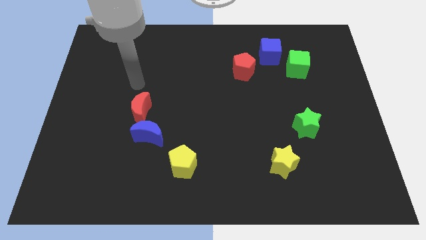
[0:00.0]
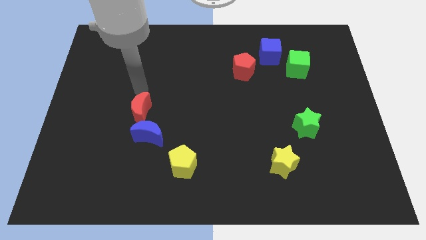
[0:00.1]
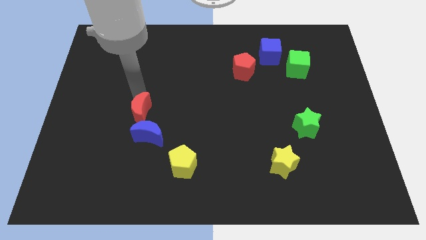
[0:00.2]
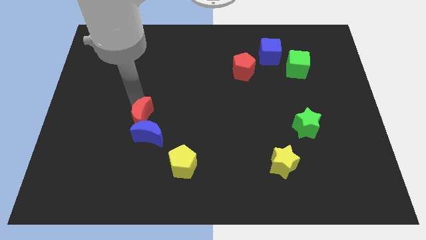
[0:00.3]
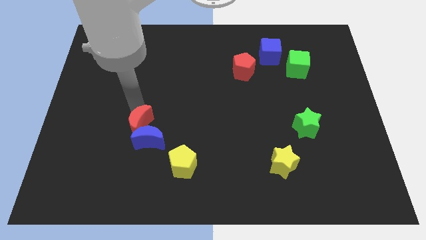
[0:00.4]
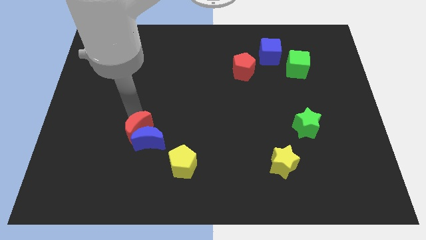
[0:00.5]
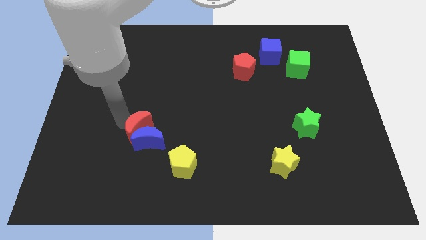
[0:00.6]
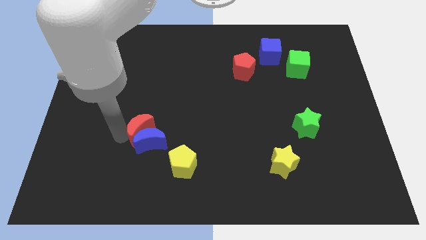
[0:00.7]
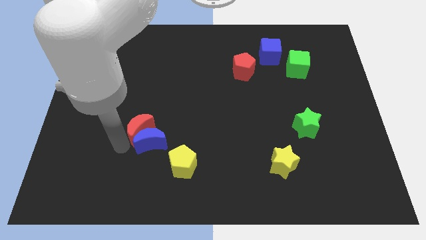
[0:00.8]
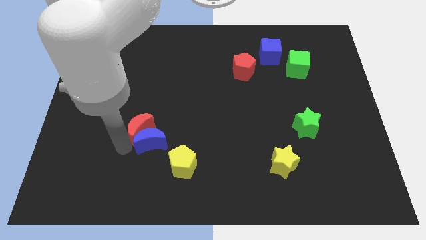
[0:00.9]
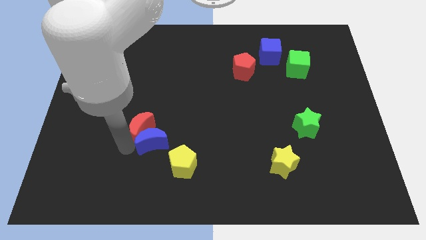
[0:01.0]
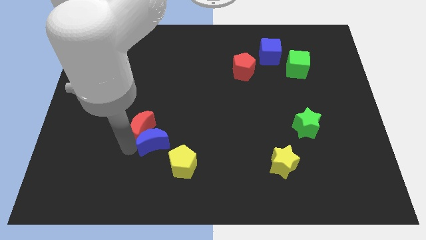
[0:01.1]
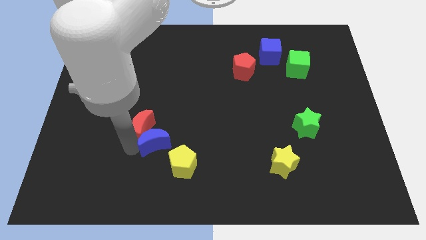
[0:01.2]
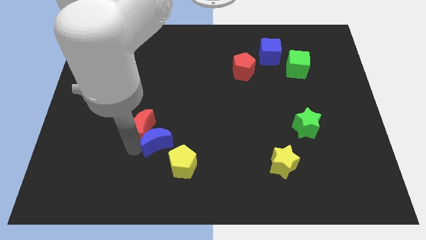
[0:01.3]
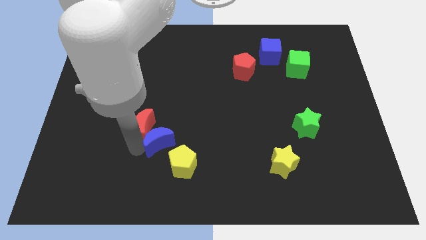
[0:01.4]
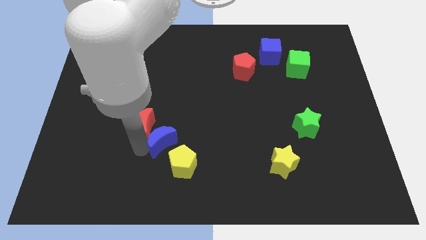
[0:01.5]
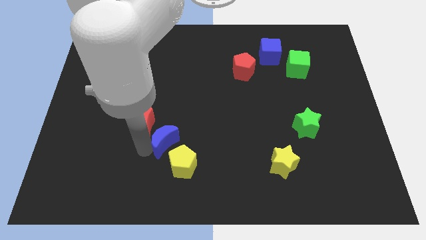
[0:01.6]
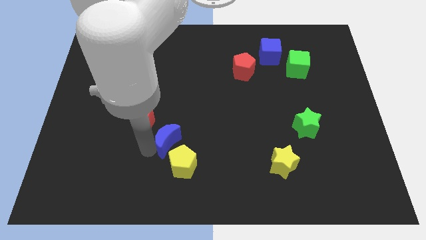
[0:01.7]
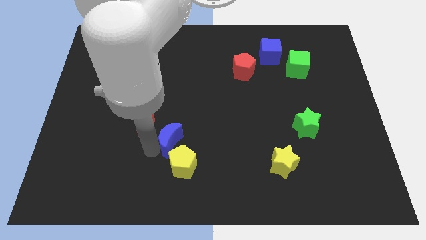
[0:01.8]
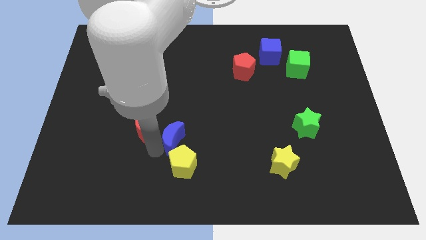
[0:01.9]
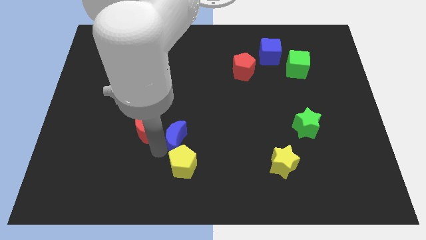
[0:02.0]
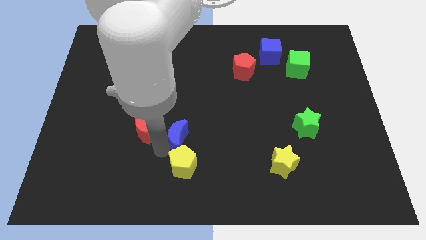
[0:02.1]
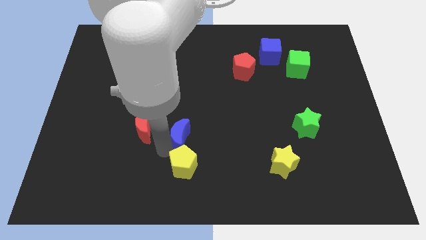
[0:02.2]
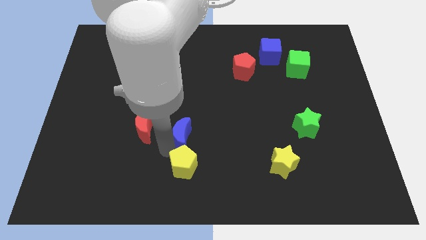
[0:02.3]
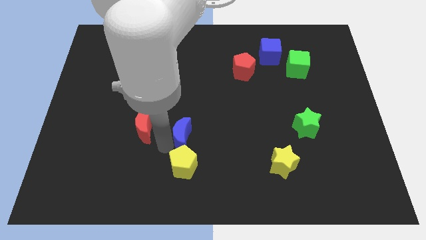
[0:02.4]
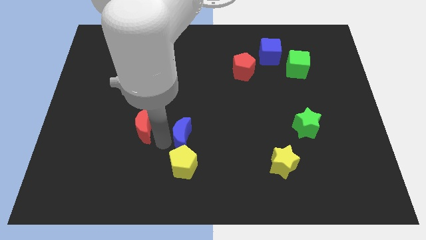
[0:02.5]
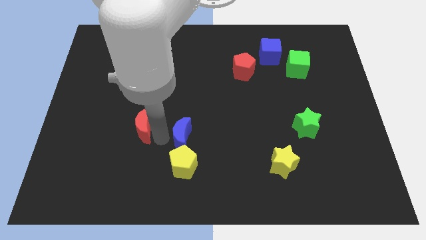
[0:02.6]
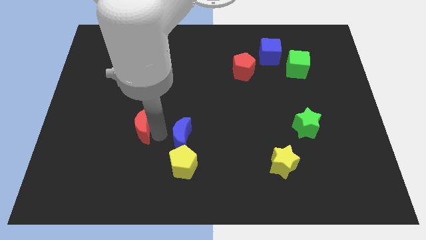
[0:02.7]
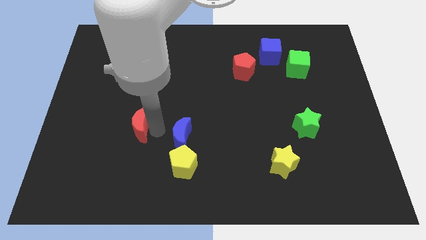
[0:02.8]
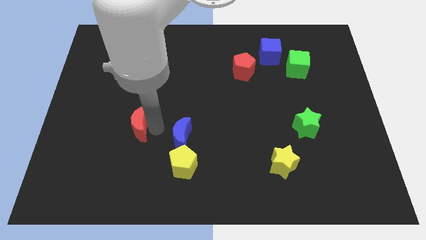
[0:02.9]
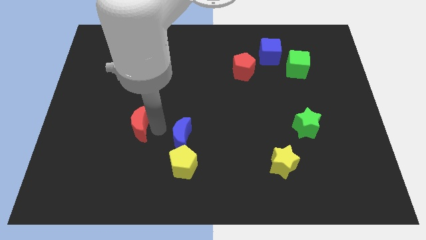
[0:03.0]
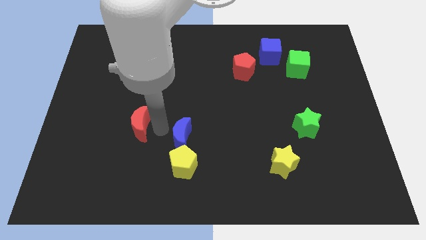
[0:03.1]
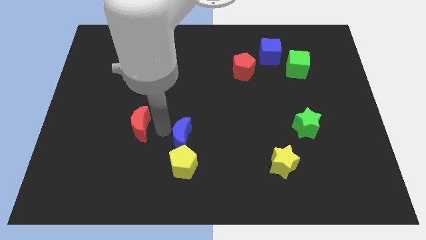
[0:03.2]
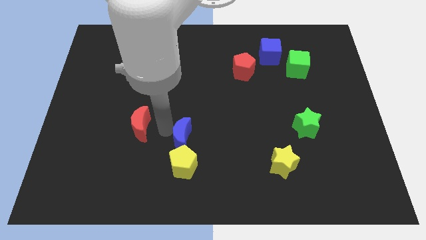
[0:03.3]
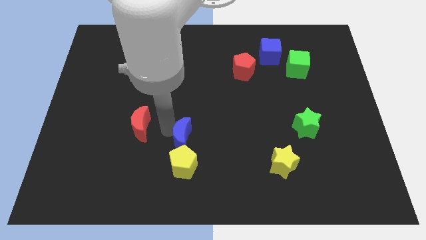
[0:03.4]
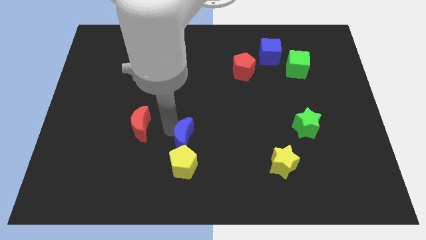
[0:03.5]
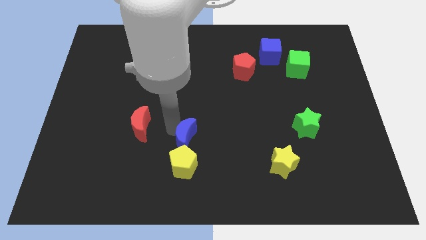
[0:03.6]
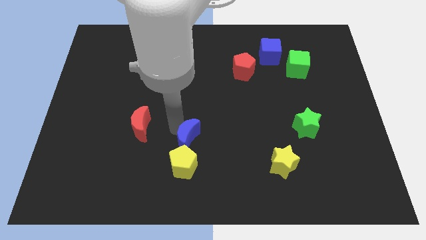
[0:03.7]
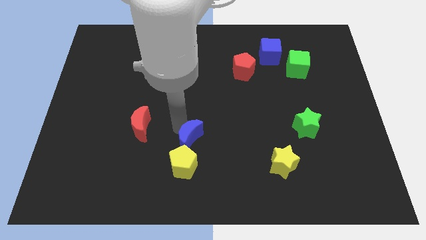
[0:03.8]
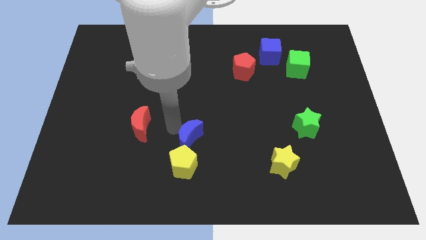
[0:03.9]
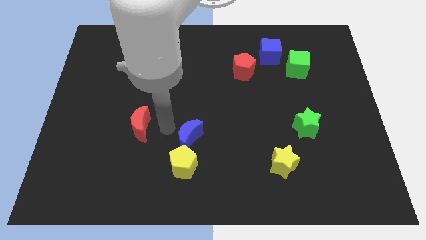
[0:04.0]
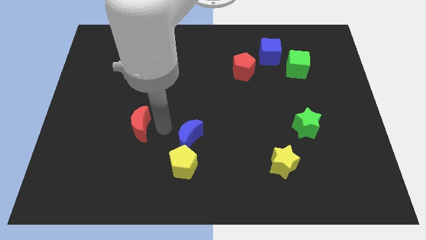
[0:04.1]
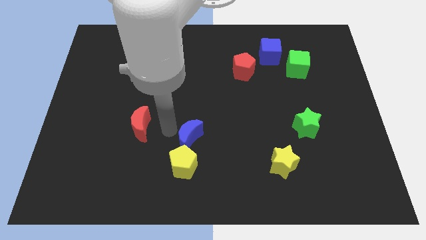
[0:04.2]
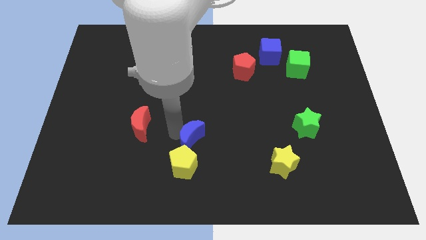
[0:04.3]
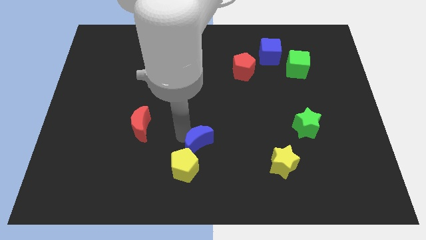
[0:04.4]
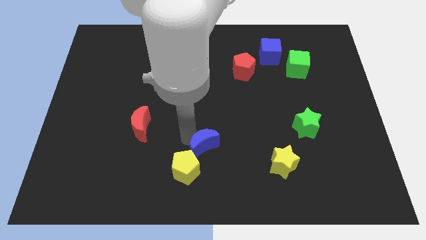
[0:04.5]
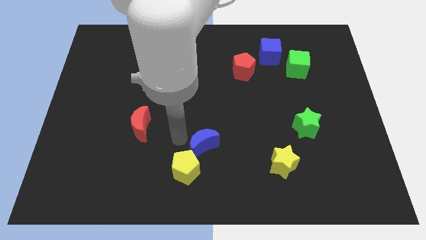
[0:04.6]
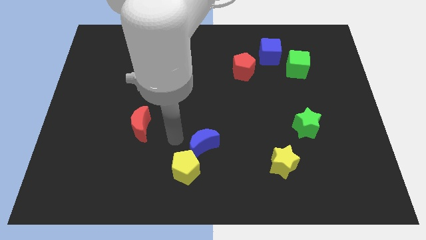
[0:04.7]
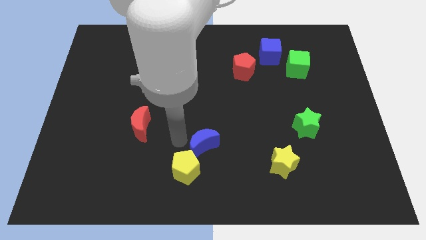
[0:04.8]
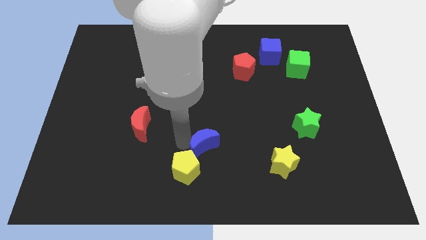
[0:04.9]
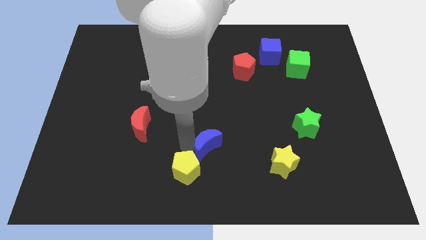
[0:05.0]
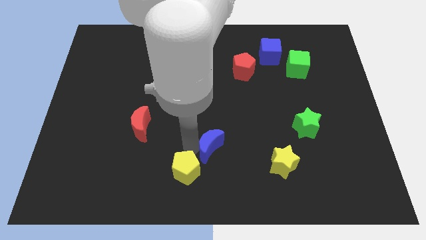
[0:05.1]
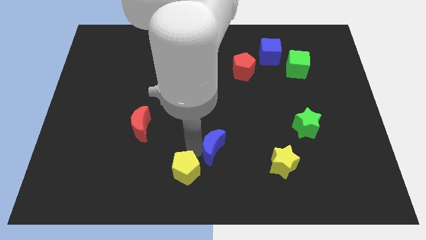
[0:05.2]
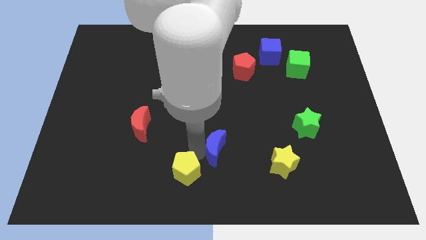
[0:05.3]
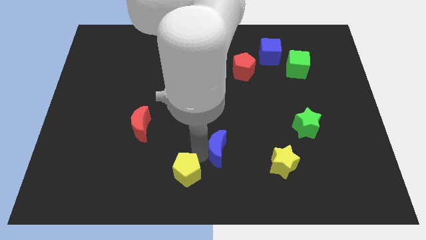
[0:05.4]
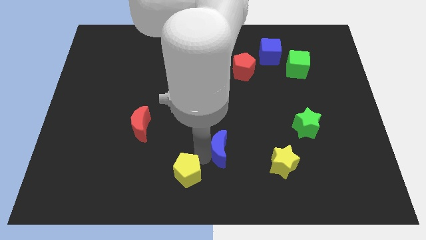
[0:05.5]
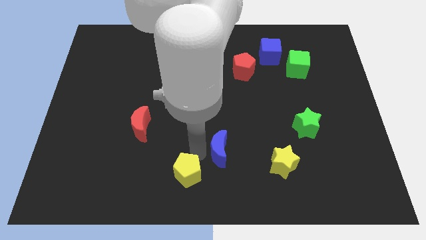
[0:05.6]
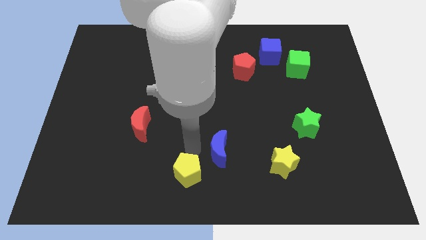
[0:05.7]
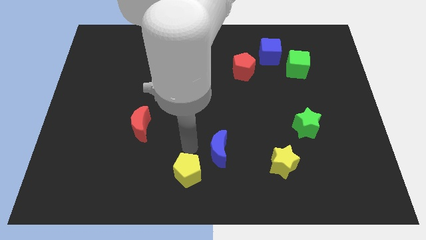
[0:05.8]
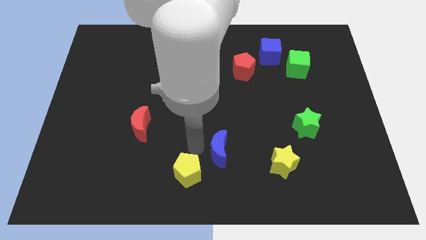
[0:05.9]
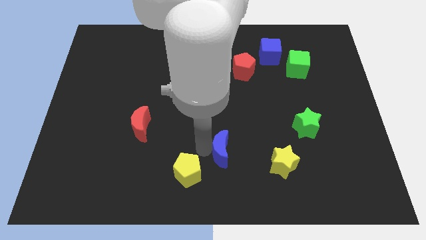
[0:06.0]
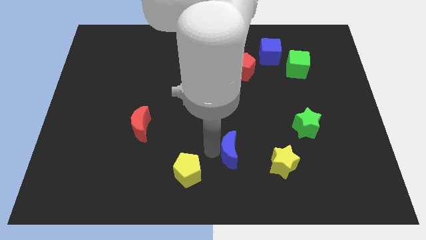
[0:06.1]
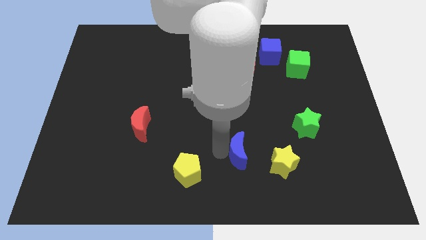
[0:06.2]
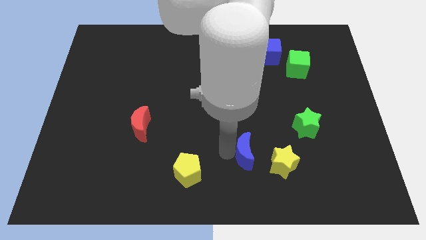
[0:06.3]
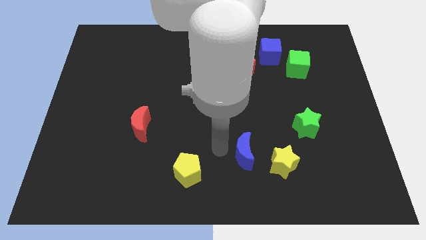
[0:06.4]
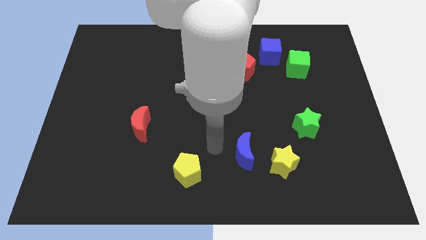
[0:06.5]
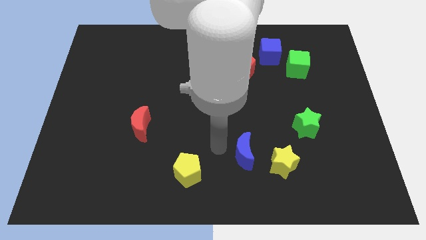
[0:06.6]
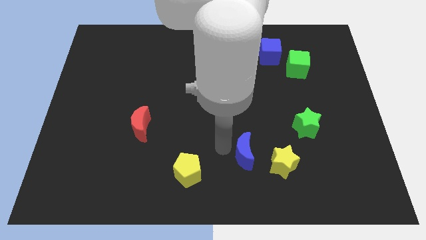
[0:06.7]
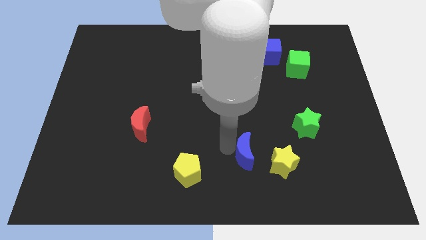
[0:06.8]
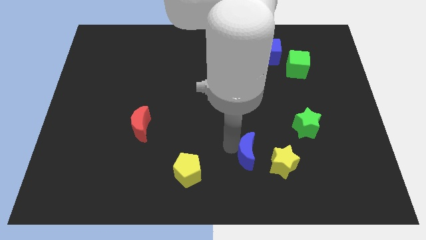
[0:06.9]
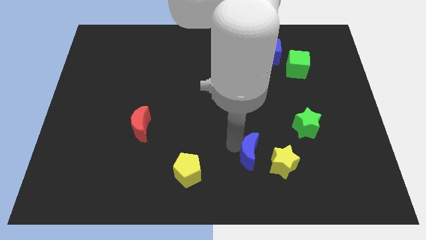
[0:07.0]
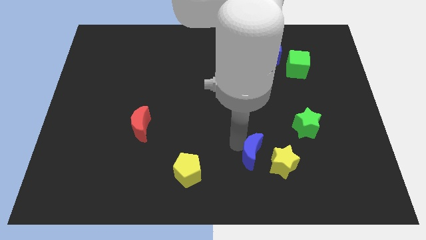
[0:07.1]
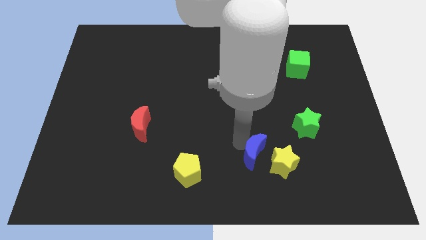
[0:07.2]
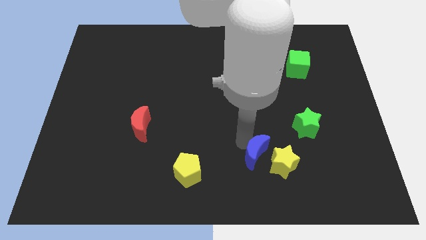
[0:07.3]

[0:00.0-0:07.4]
push the blue moon to the yellow star

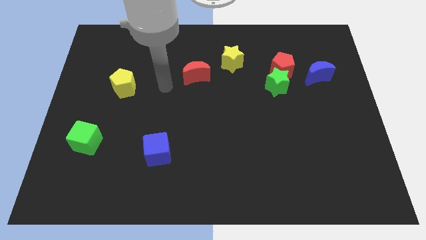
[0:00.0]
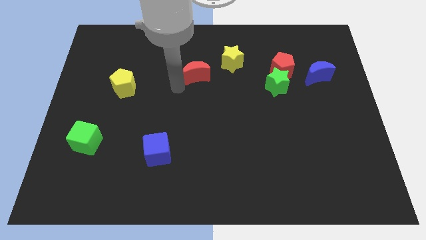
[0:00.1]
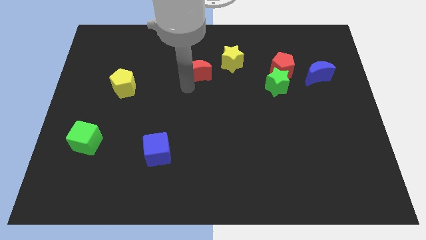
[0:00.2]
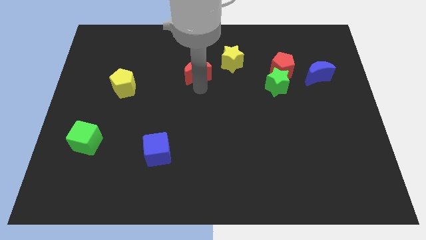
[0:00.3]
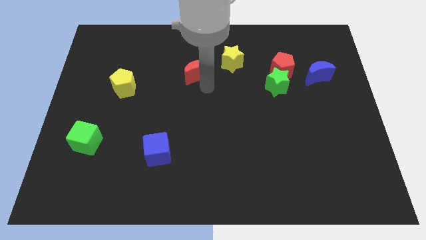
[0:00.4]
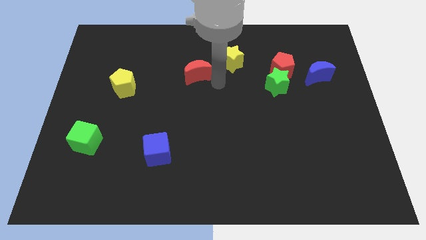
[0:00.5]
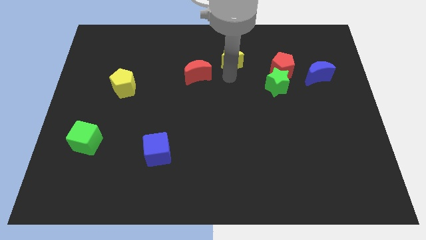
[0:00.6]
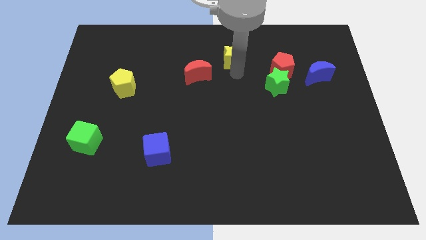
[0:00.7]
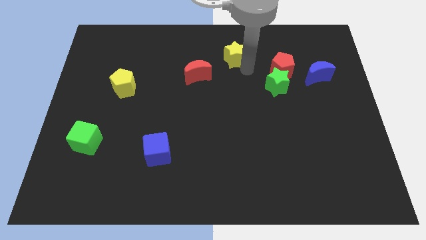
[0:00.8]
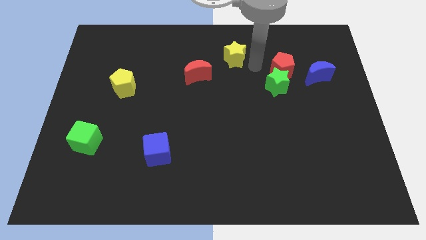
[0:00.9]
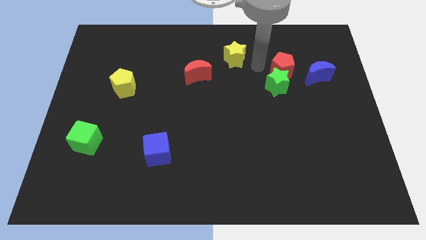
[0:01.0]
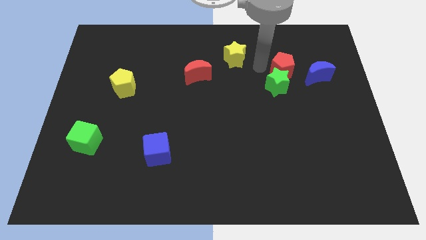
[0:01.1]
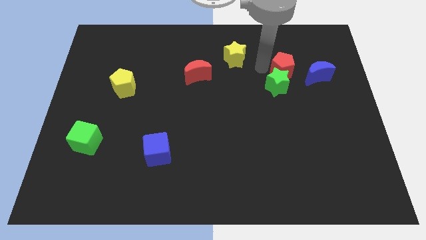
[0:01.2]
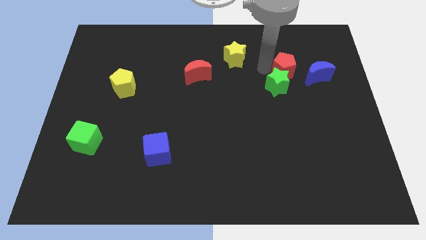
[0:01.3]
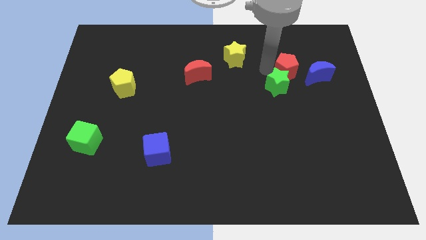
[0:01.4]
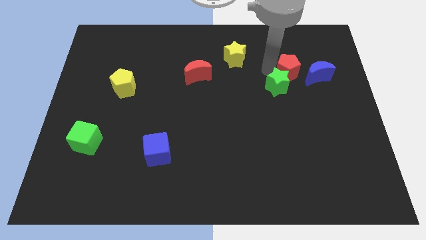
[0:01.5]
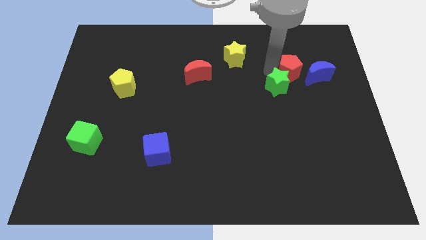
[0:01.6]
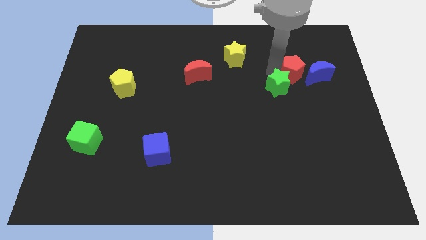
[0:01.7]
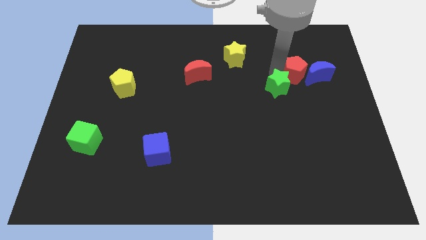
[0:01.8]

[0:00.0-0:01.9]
slide the red pentagon towards the blue moon
